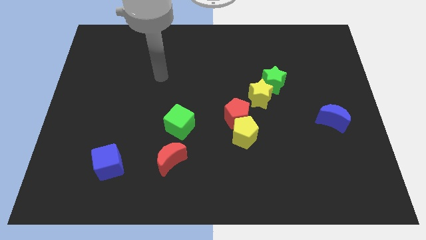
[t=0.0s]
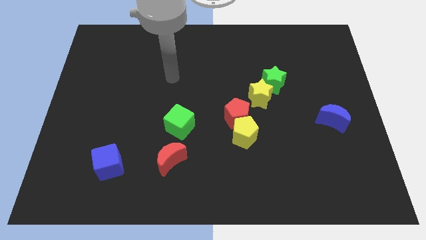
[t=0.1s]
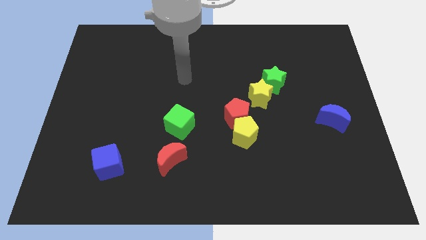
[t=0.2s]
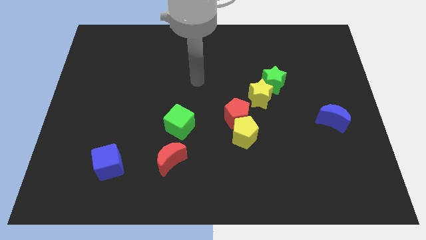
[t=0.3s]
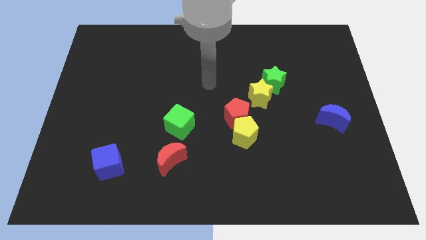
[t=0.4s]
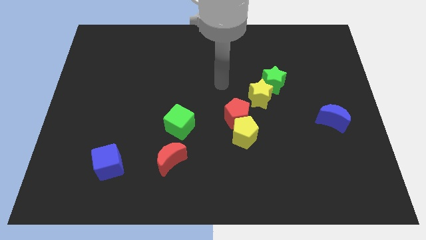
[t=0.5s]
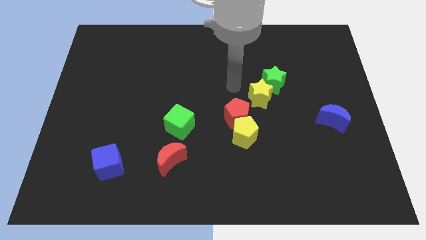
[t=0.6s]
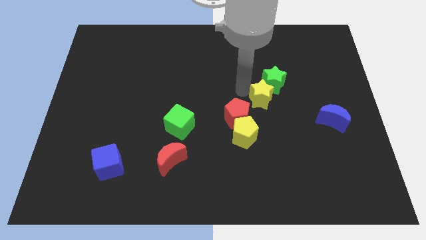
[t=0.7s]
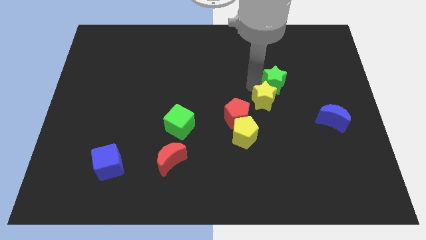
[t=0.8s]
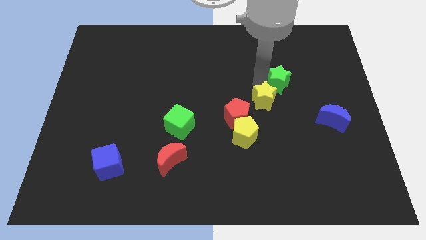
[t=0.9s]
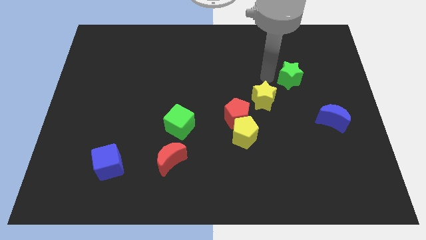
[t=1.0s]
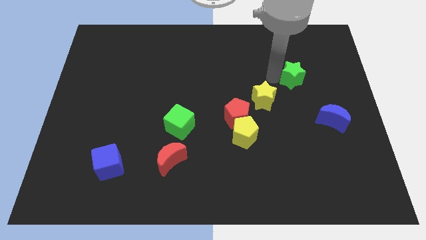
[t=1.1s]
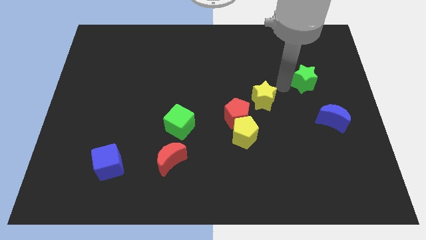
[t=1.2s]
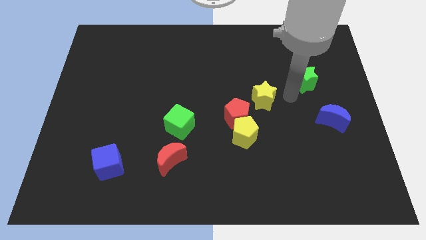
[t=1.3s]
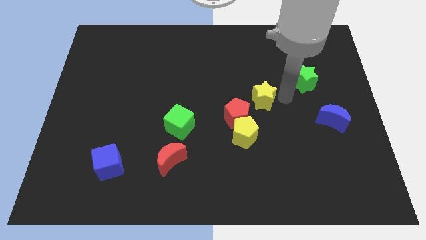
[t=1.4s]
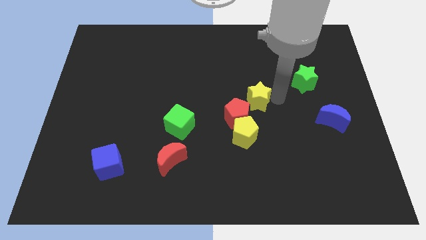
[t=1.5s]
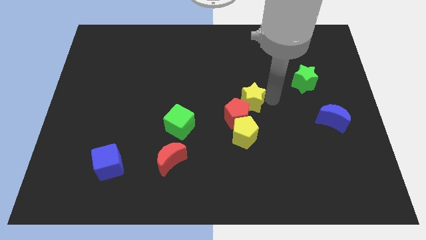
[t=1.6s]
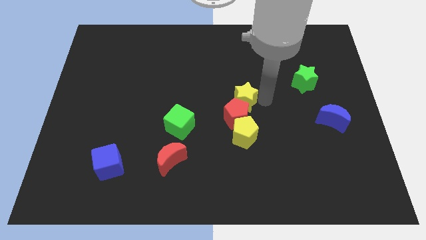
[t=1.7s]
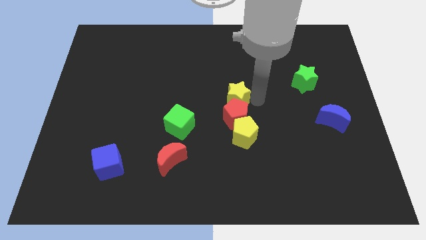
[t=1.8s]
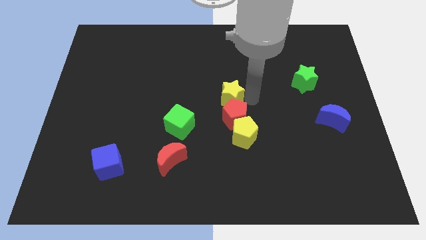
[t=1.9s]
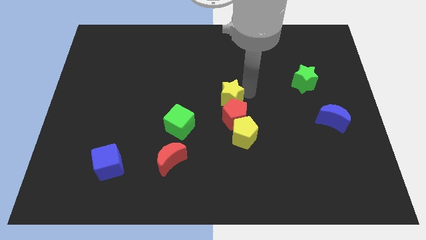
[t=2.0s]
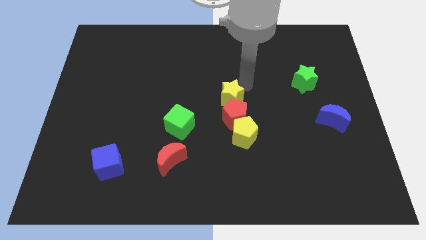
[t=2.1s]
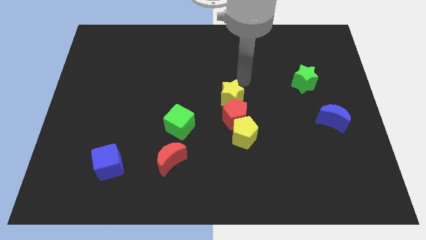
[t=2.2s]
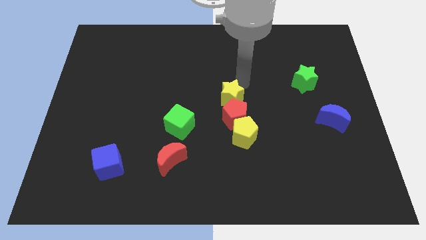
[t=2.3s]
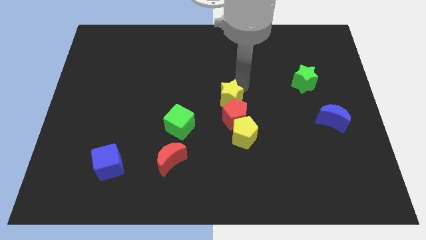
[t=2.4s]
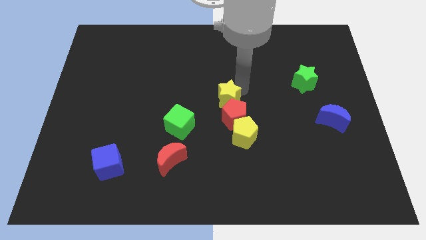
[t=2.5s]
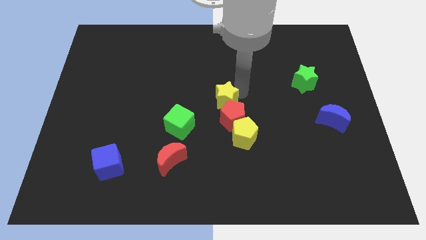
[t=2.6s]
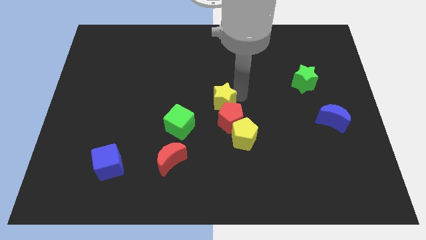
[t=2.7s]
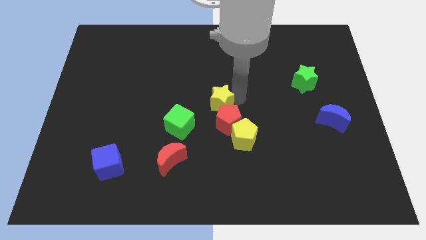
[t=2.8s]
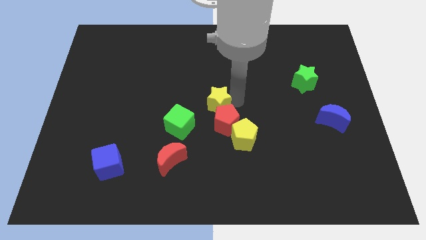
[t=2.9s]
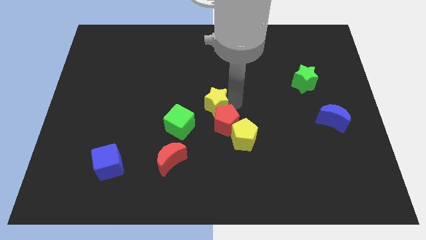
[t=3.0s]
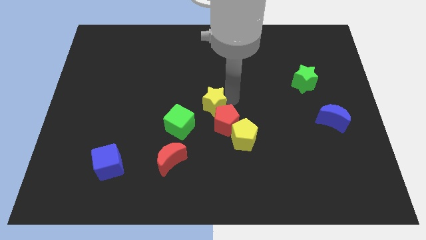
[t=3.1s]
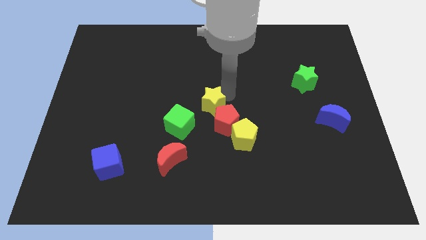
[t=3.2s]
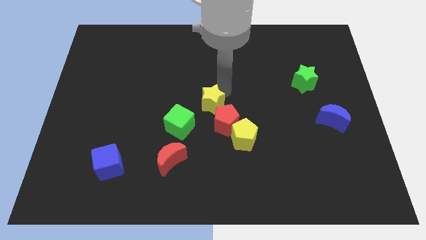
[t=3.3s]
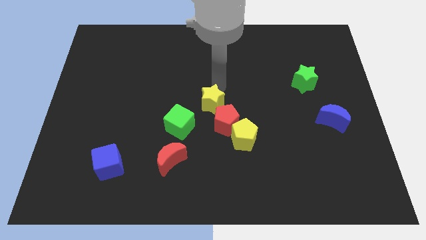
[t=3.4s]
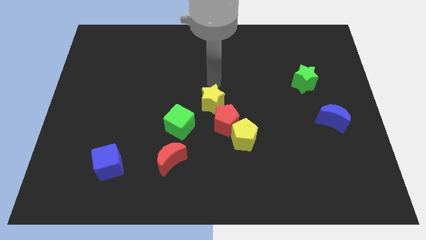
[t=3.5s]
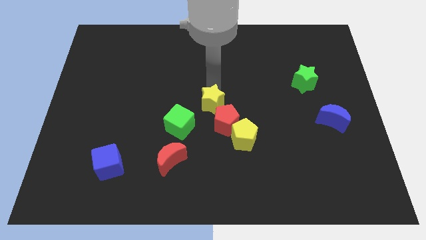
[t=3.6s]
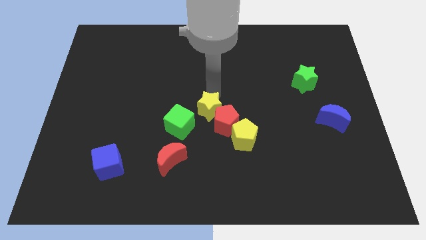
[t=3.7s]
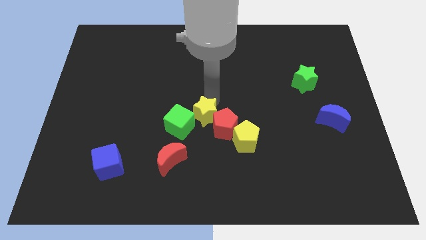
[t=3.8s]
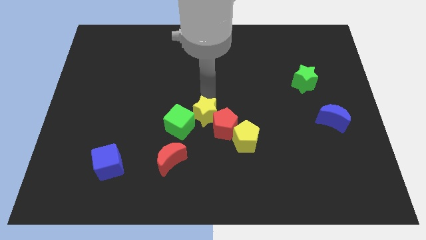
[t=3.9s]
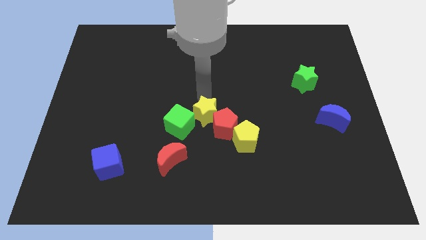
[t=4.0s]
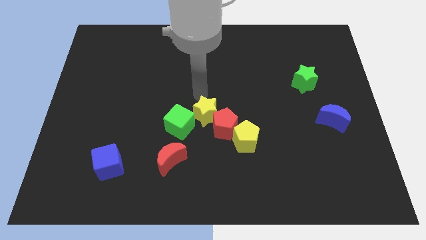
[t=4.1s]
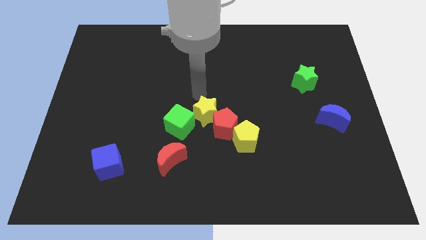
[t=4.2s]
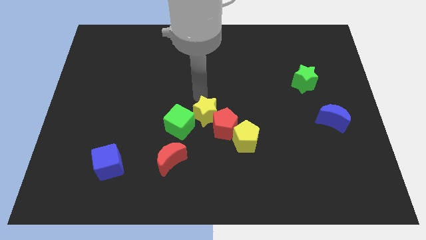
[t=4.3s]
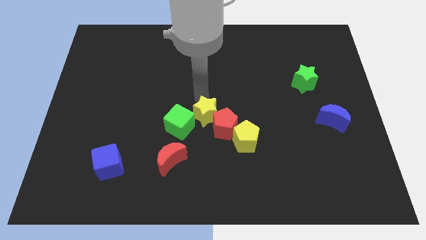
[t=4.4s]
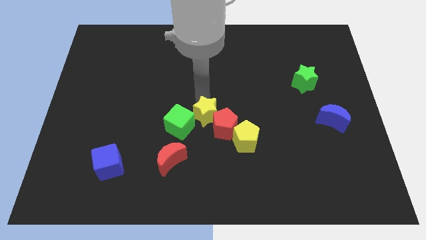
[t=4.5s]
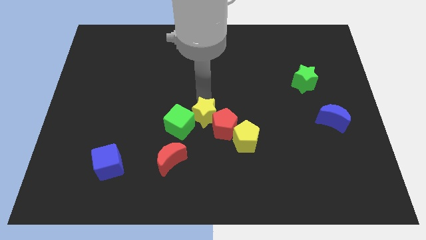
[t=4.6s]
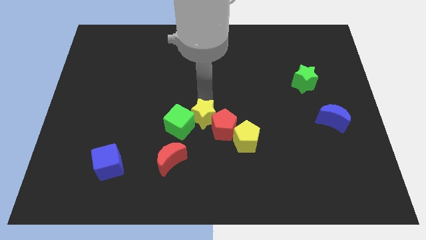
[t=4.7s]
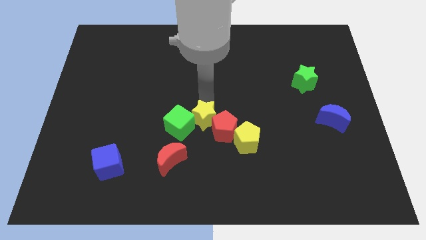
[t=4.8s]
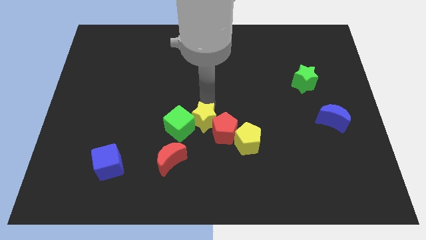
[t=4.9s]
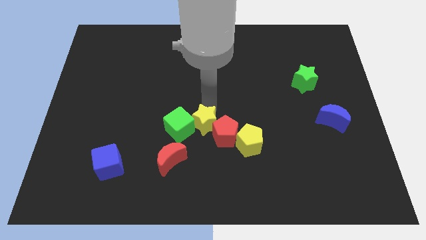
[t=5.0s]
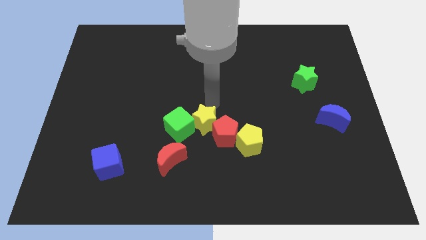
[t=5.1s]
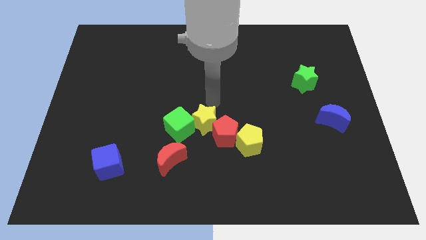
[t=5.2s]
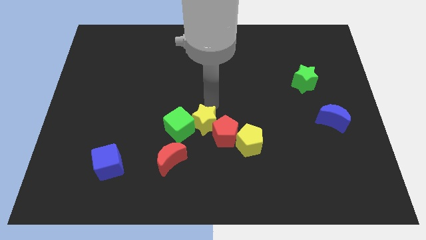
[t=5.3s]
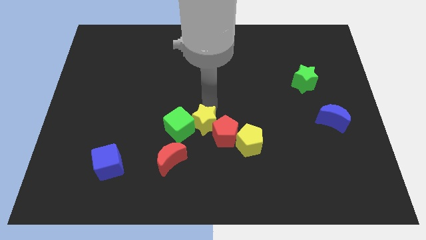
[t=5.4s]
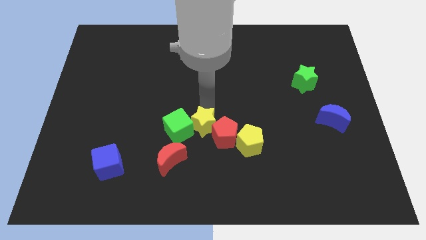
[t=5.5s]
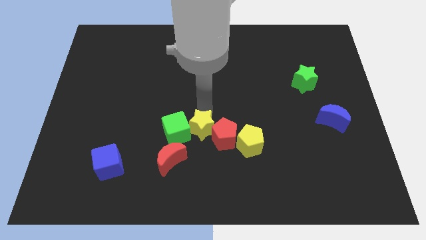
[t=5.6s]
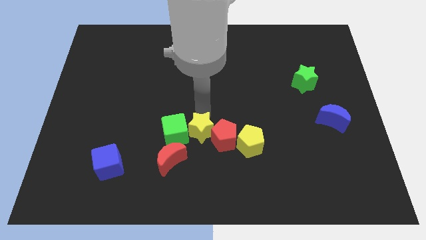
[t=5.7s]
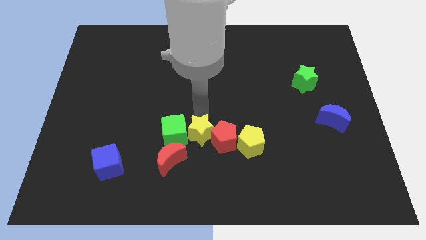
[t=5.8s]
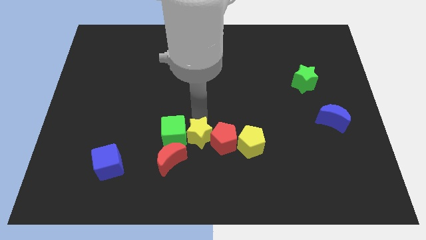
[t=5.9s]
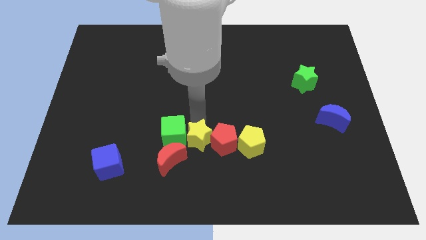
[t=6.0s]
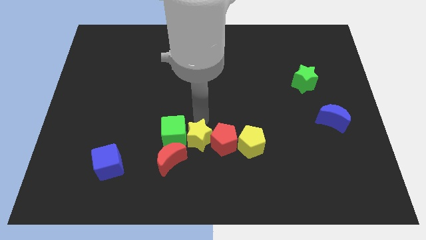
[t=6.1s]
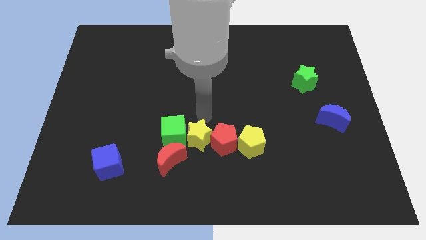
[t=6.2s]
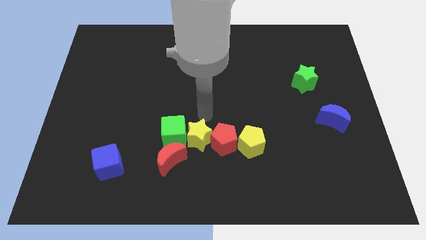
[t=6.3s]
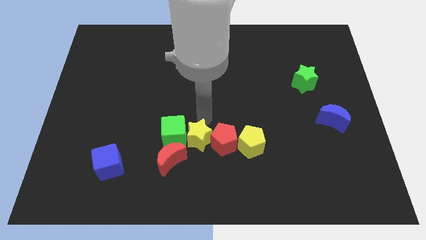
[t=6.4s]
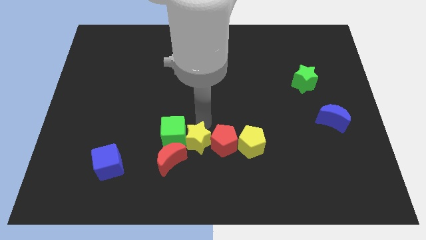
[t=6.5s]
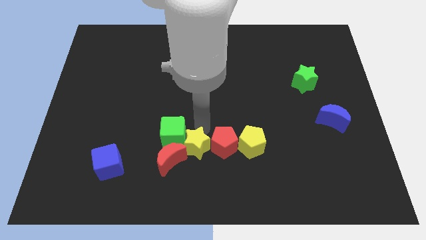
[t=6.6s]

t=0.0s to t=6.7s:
slide the yellow star diagonally downwards and to the left

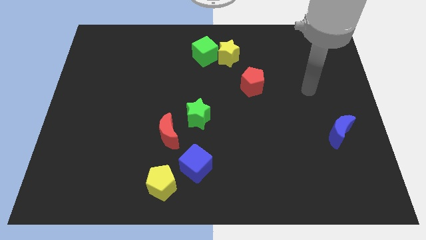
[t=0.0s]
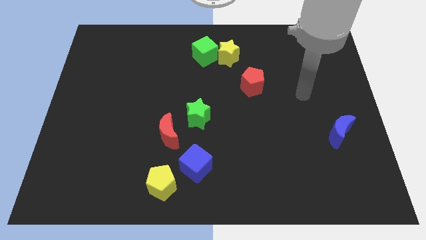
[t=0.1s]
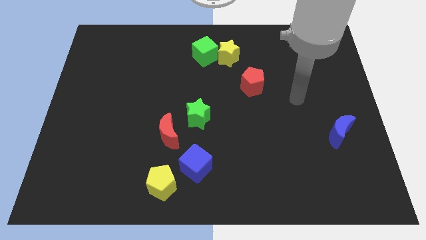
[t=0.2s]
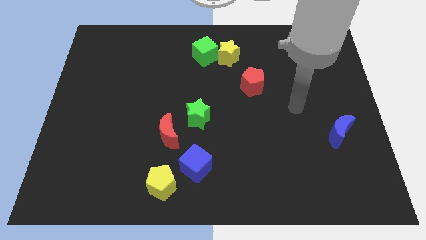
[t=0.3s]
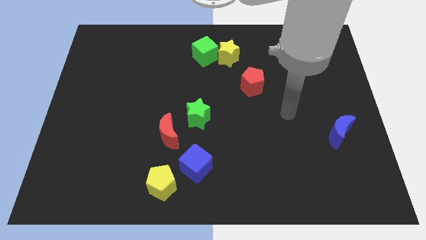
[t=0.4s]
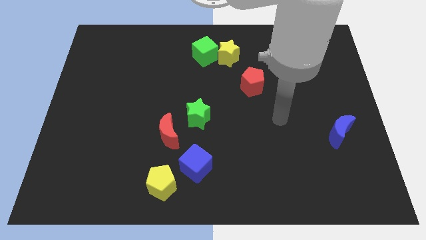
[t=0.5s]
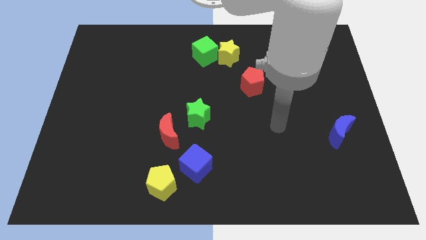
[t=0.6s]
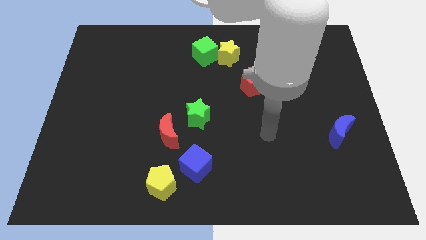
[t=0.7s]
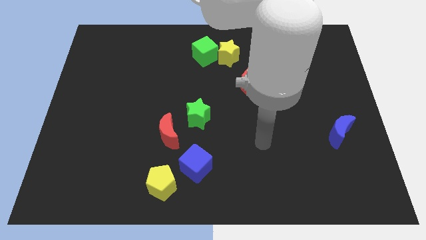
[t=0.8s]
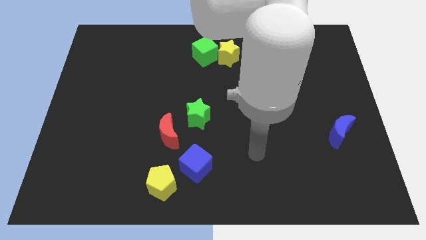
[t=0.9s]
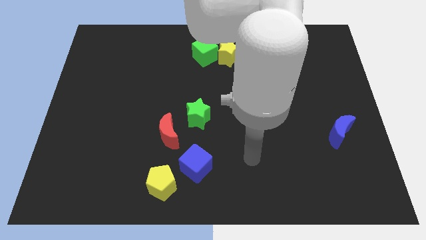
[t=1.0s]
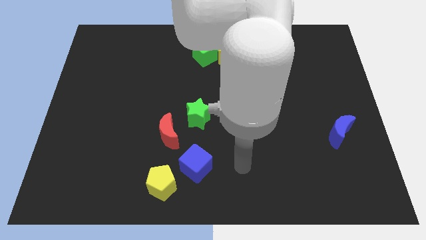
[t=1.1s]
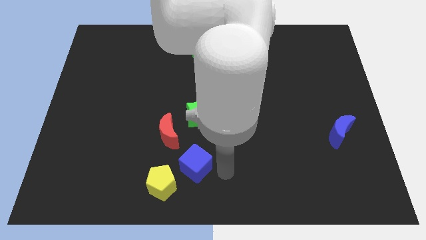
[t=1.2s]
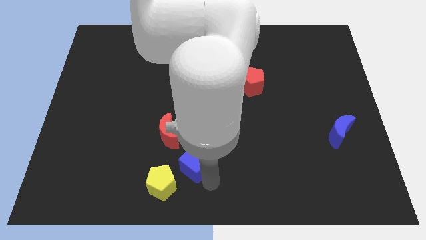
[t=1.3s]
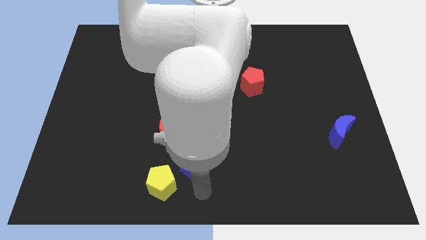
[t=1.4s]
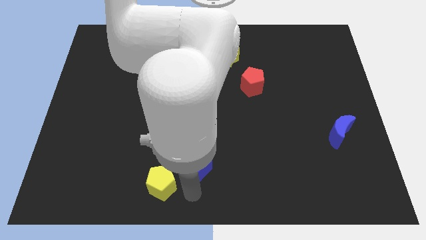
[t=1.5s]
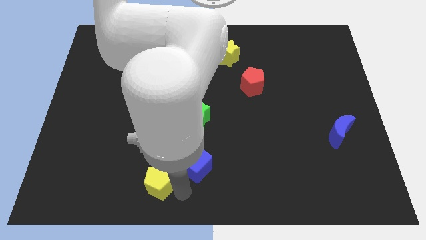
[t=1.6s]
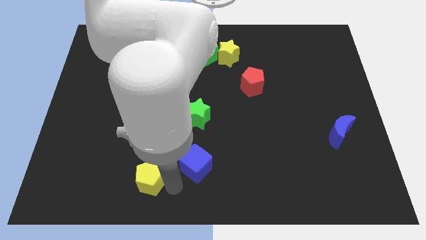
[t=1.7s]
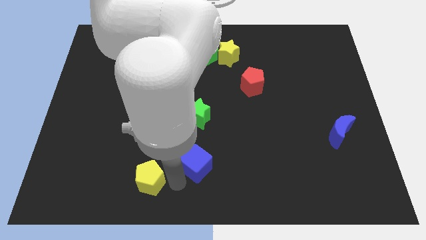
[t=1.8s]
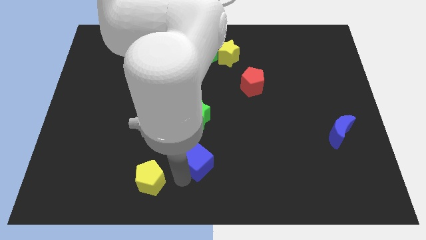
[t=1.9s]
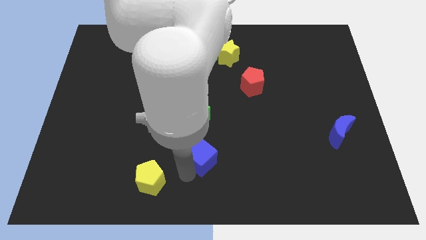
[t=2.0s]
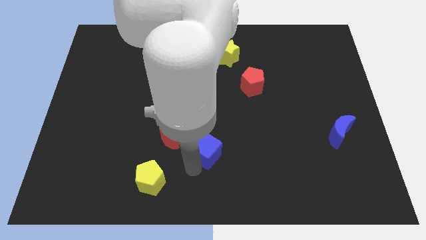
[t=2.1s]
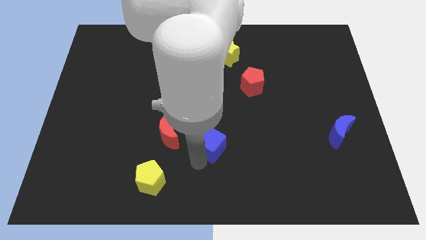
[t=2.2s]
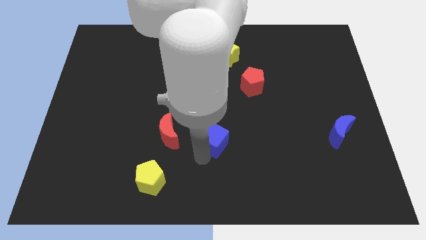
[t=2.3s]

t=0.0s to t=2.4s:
push the blue cube a little bit diagonally up and to the right
